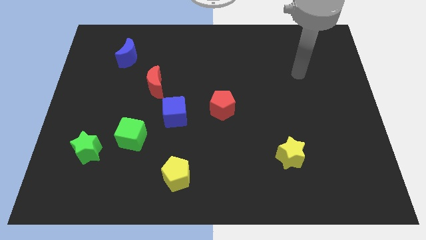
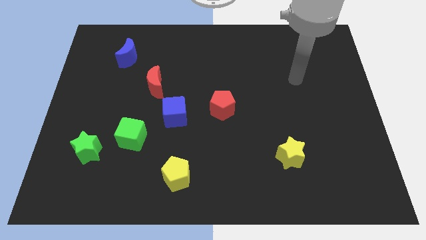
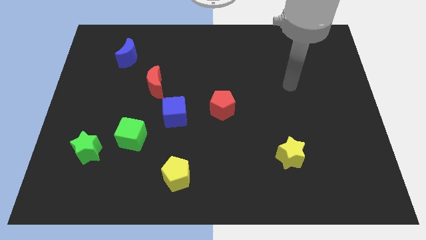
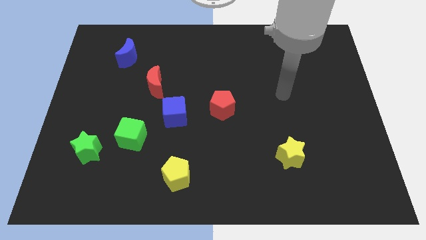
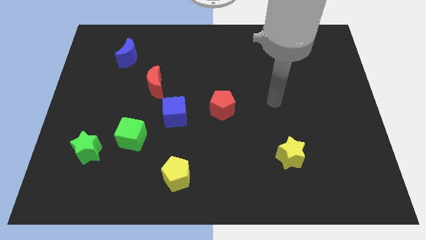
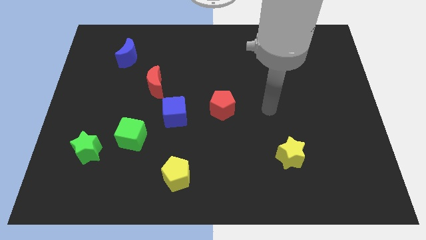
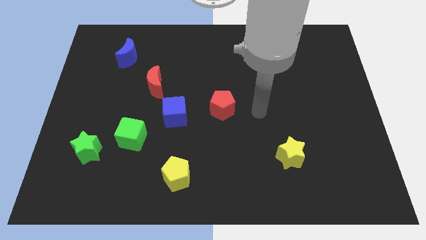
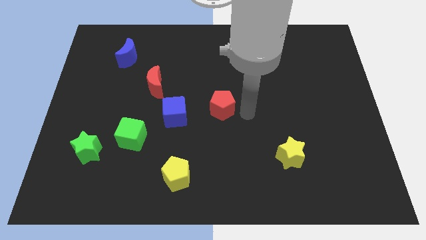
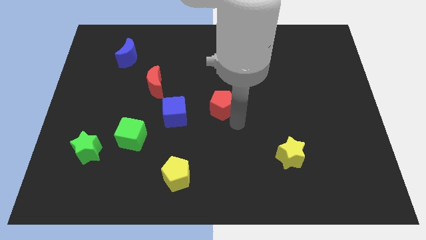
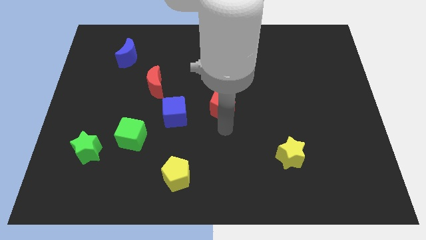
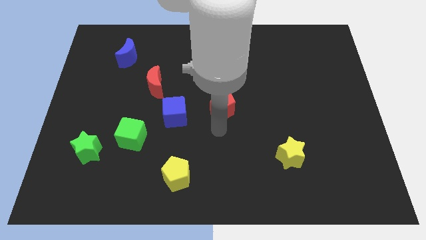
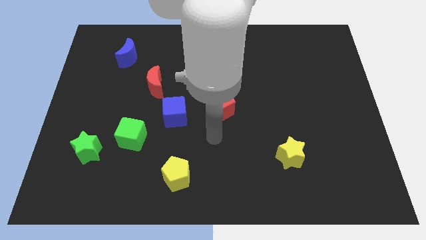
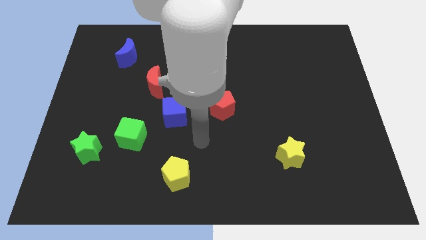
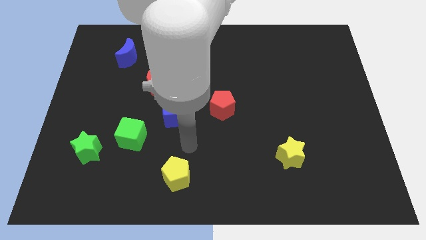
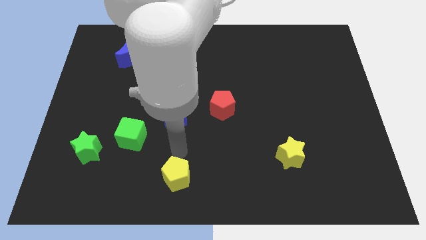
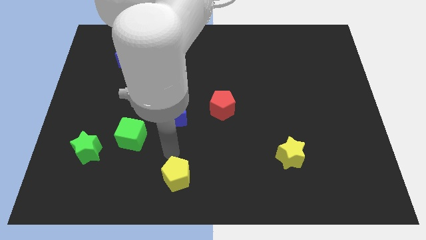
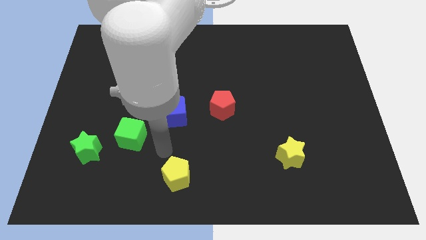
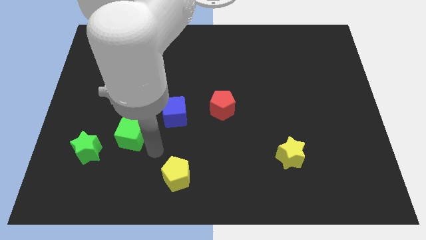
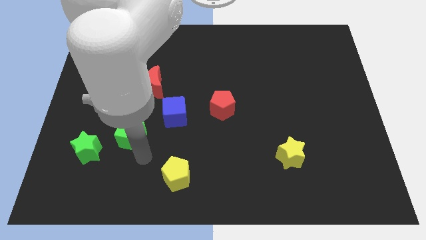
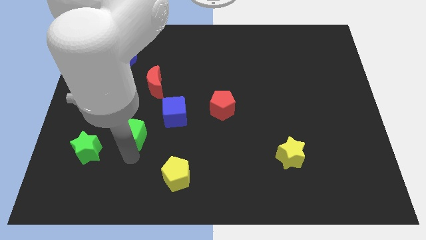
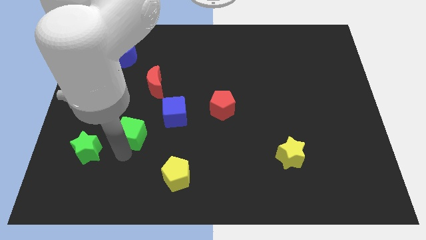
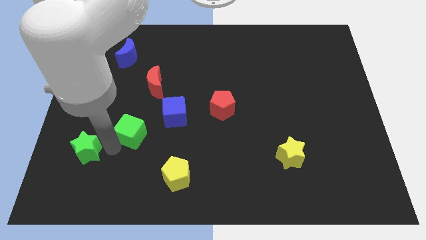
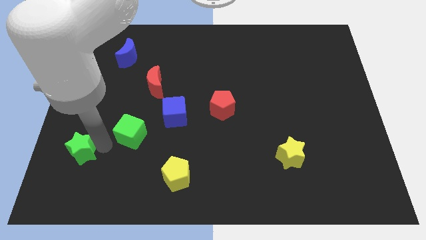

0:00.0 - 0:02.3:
move the green cube away from the green star

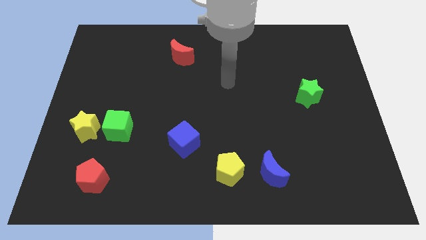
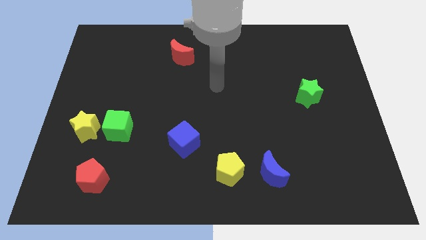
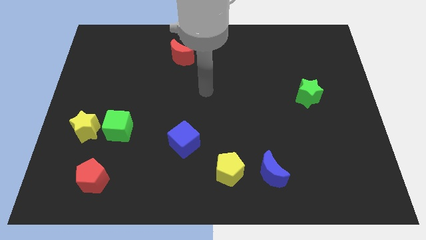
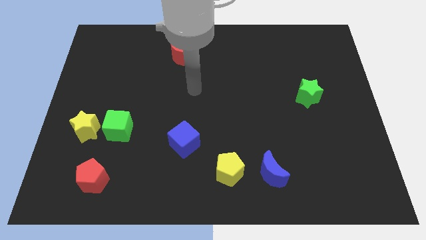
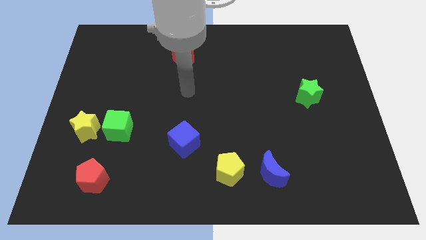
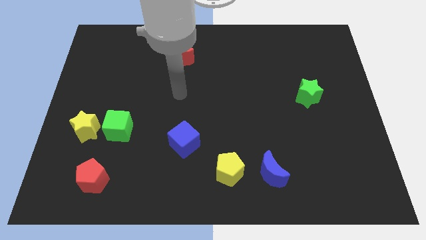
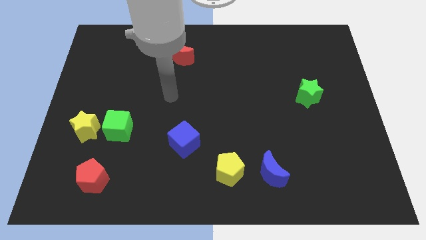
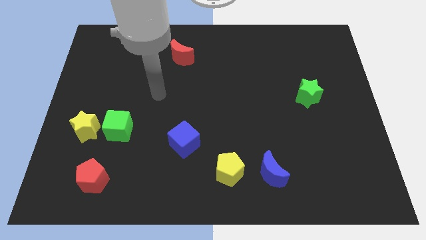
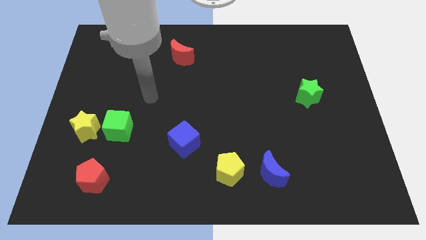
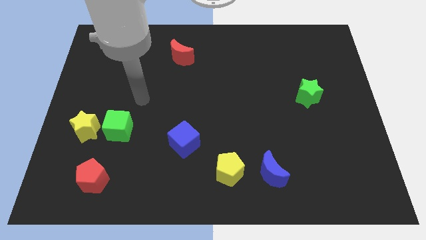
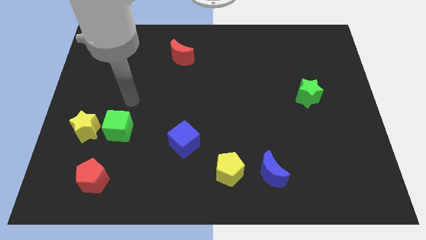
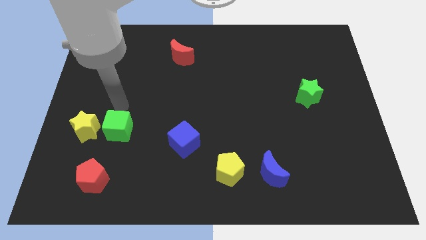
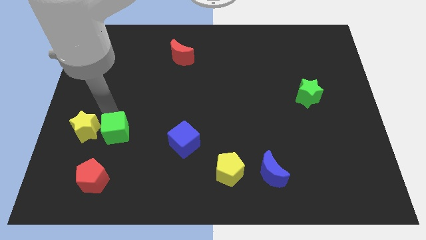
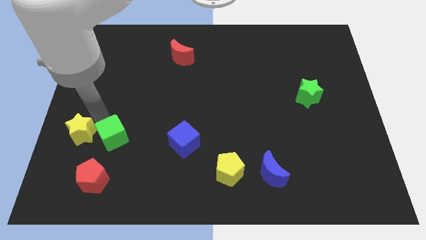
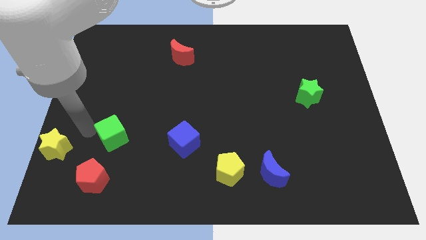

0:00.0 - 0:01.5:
separate the green cube from the yellow star

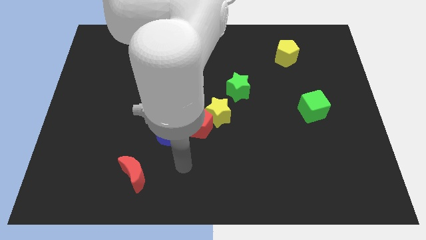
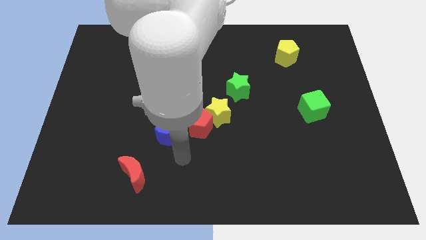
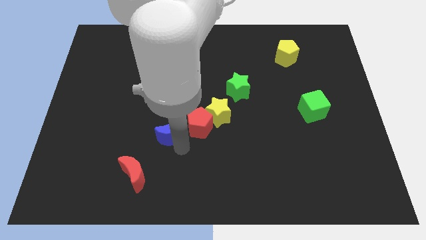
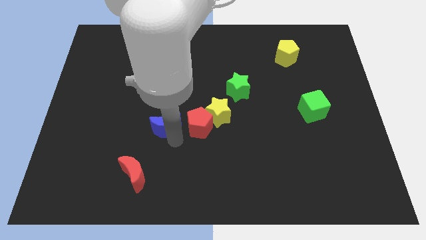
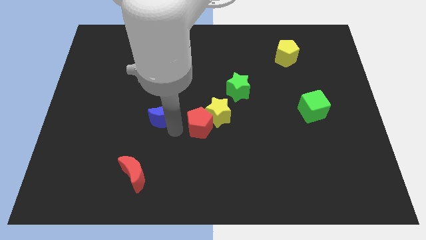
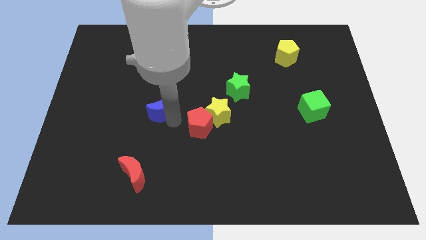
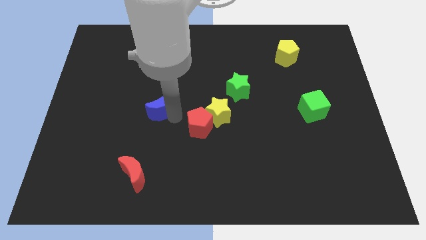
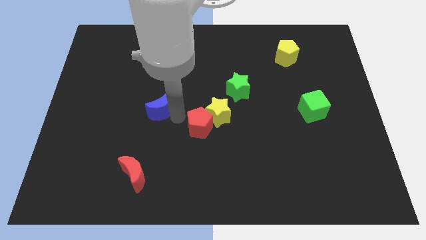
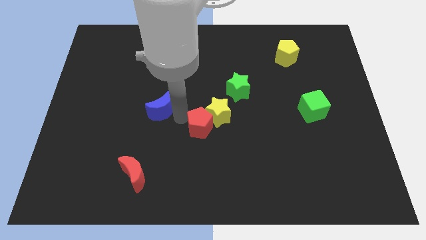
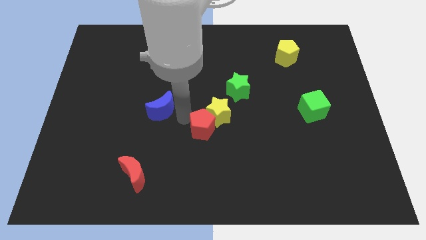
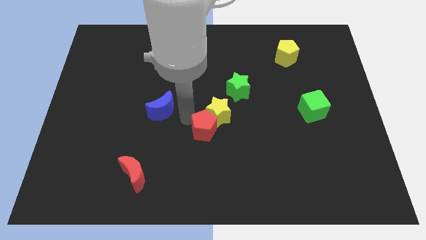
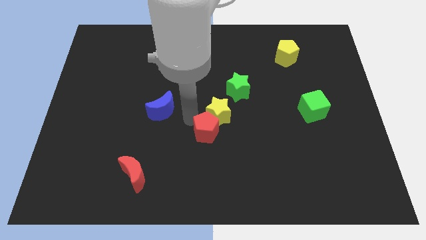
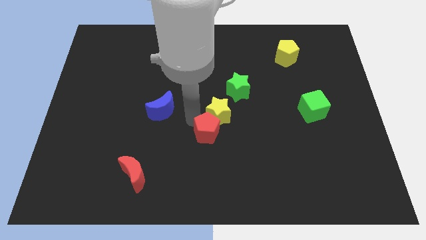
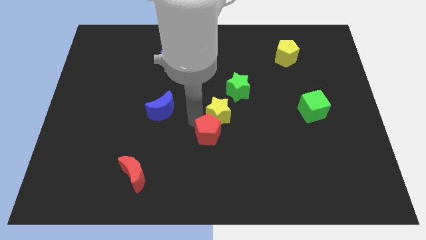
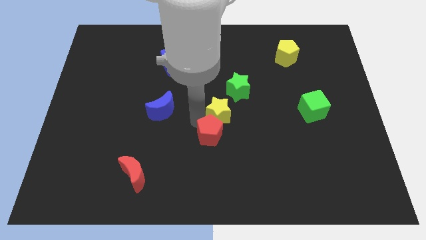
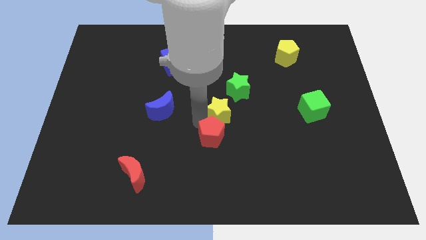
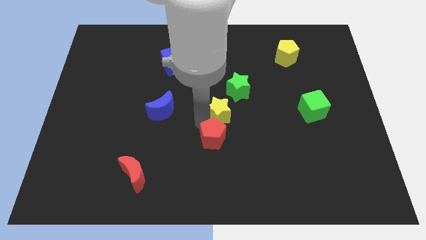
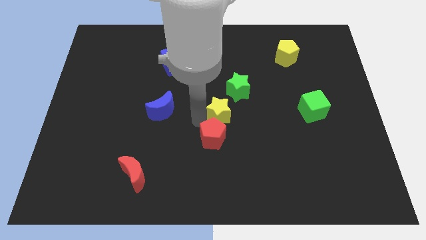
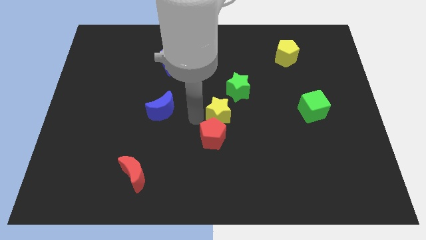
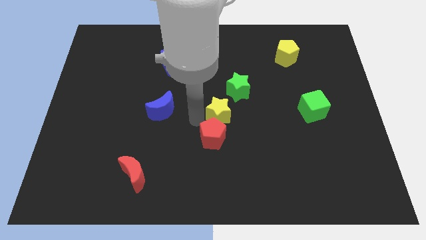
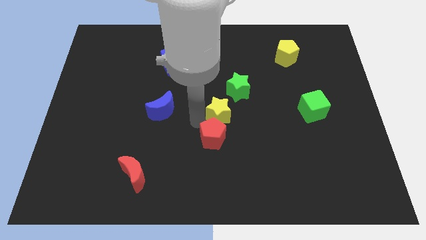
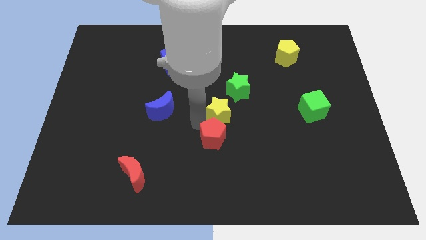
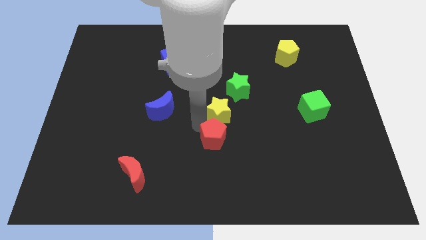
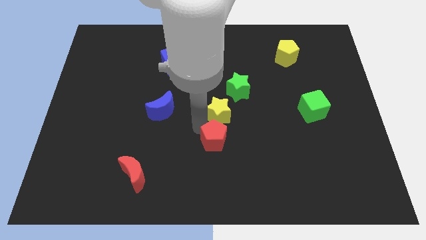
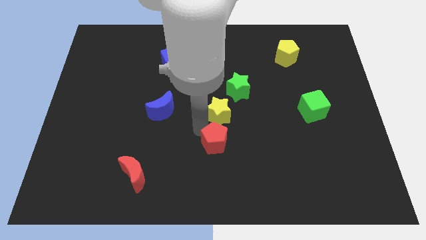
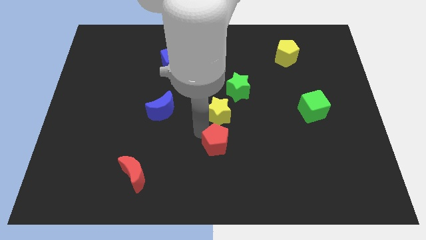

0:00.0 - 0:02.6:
pull the red pentagon apart from the yellow star and blue moon

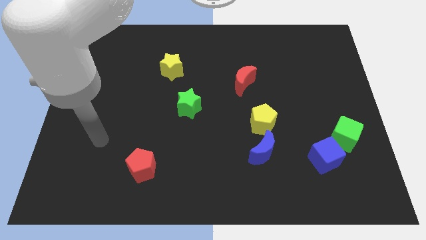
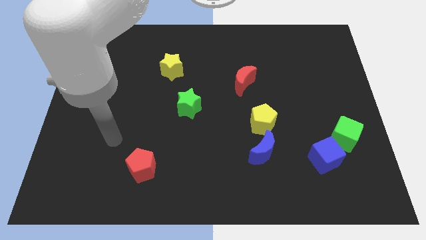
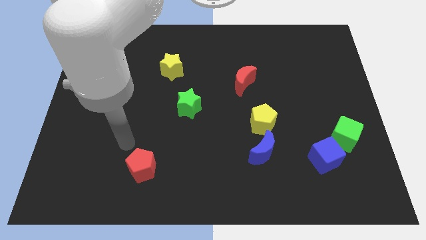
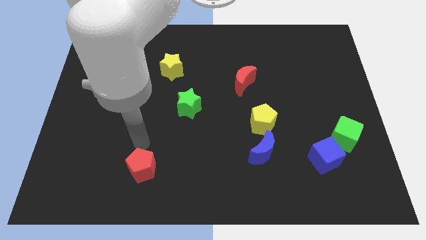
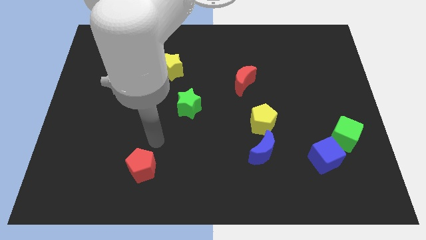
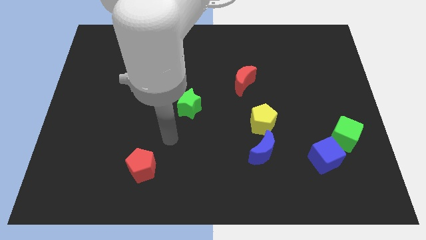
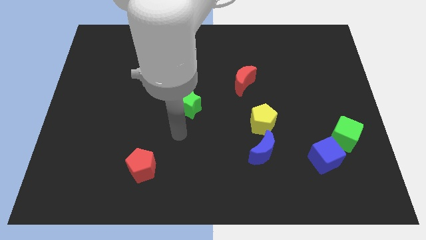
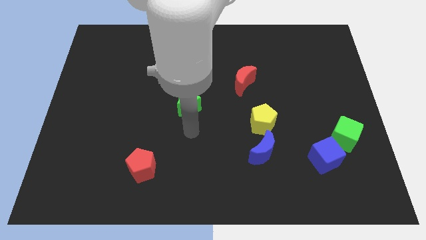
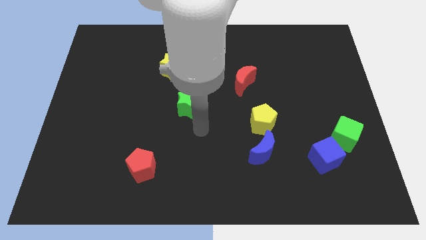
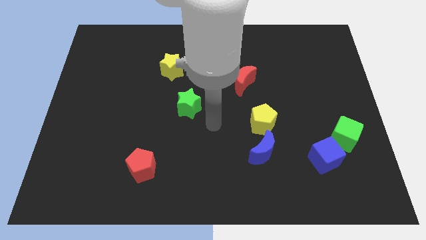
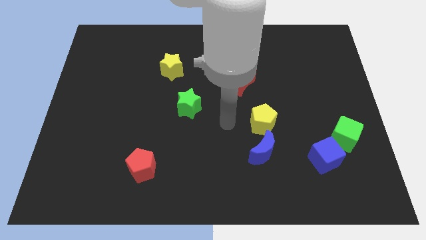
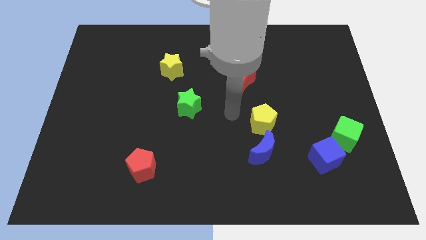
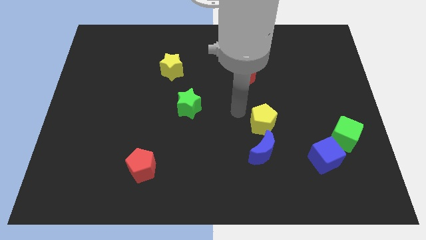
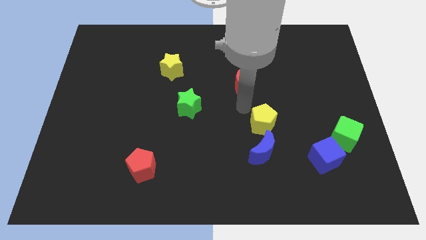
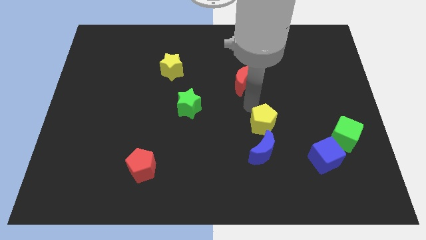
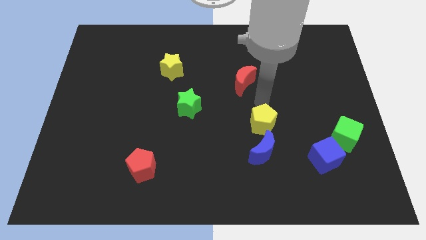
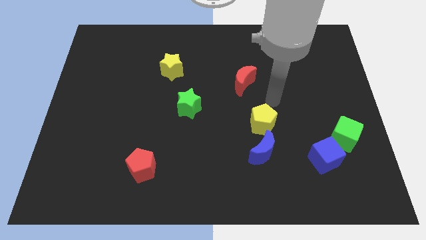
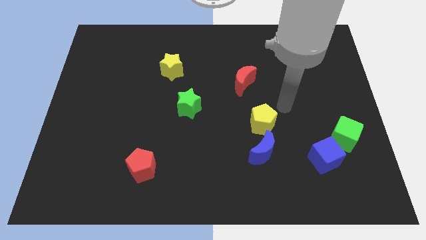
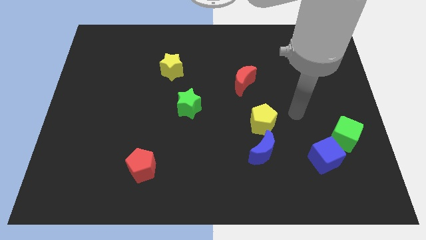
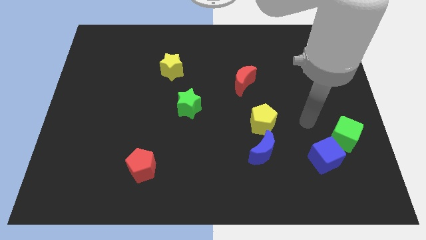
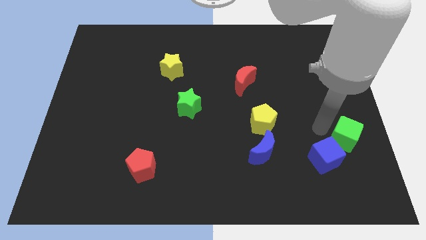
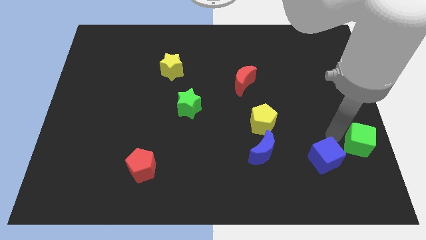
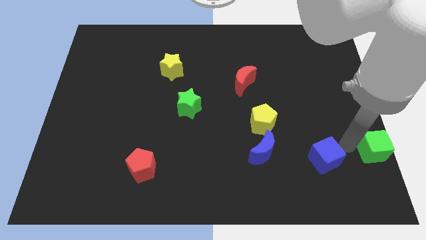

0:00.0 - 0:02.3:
move the blue cube away from the green cube

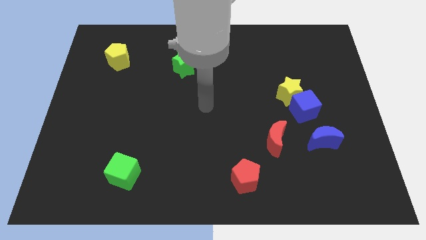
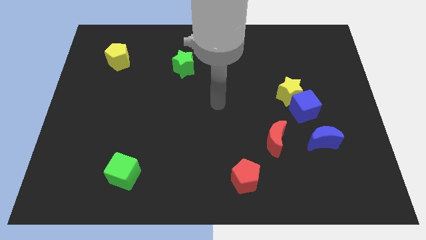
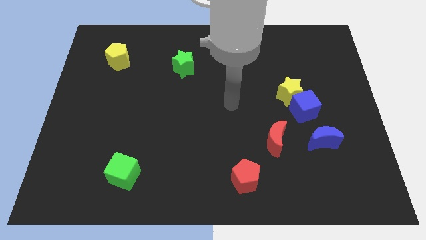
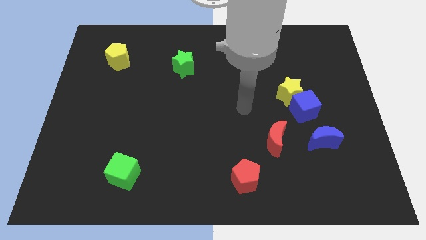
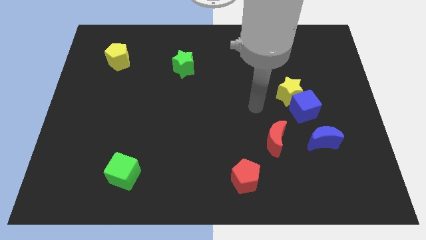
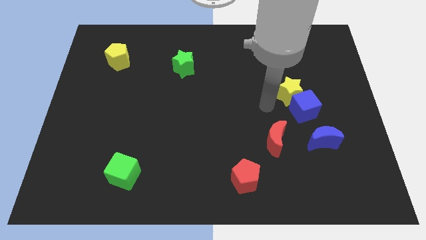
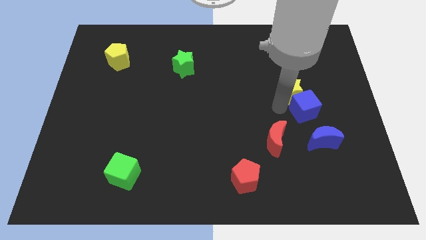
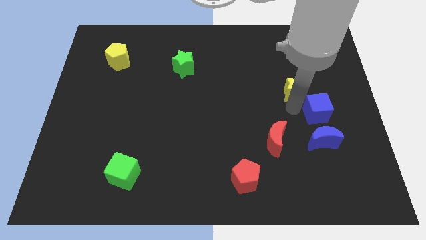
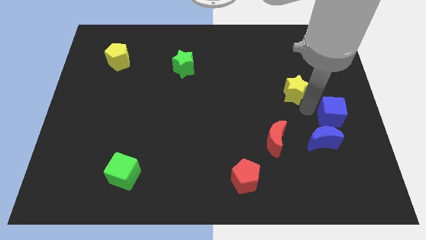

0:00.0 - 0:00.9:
move the yellow star away from the blue cube
